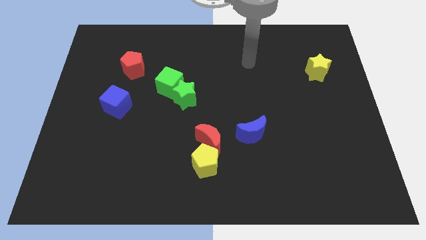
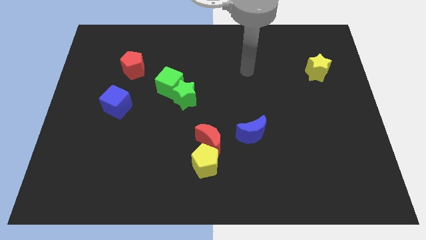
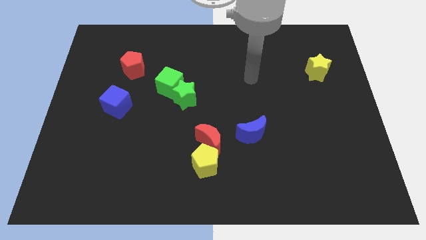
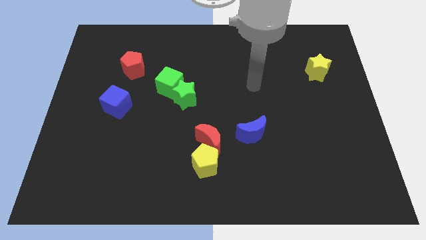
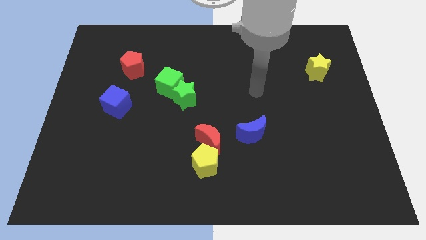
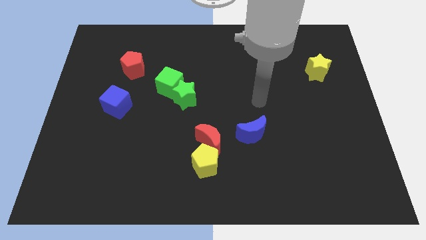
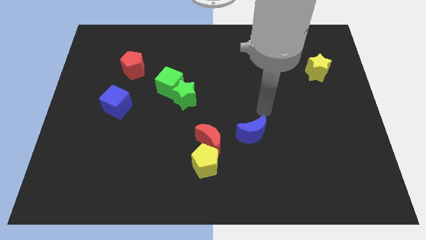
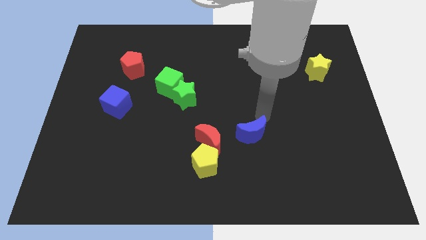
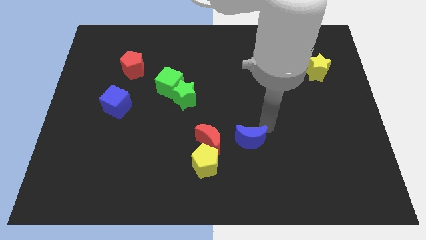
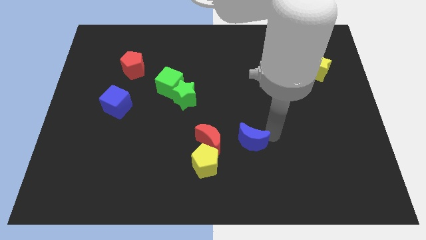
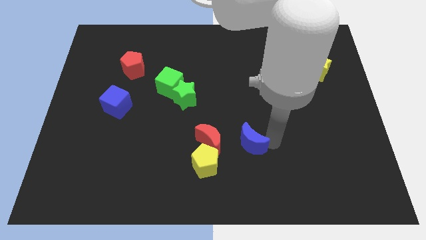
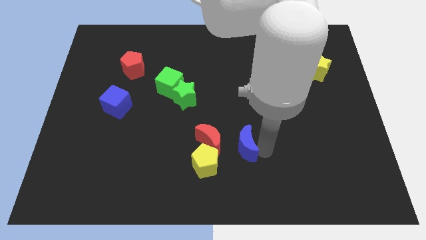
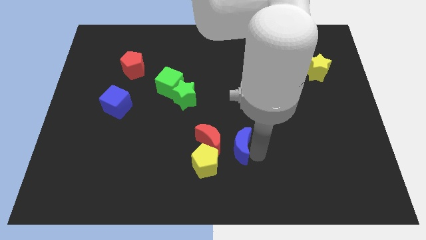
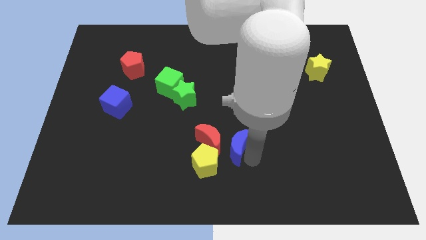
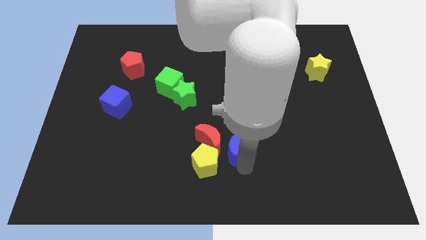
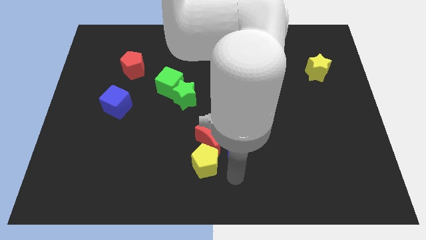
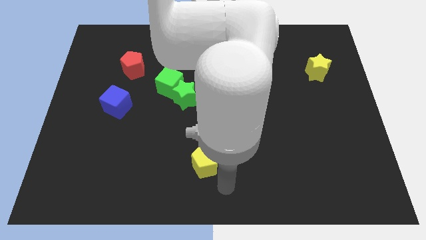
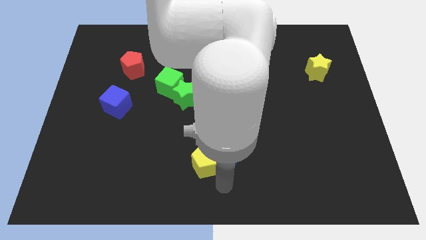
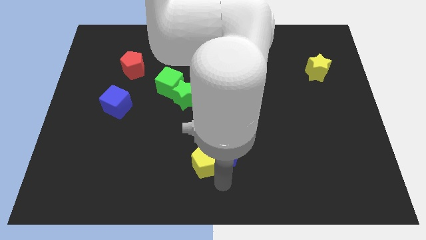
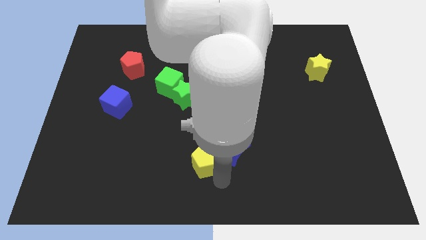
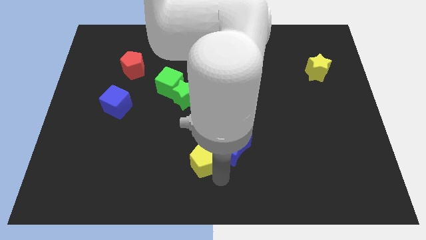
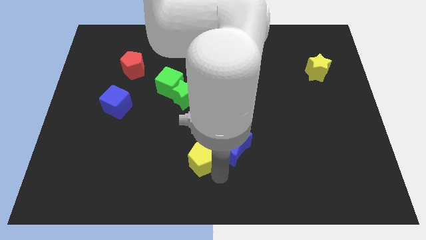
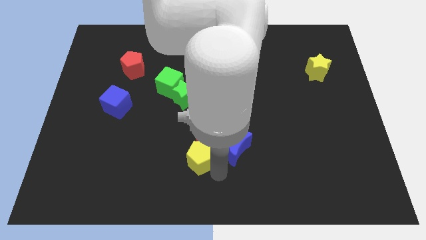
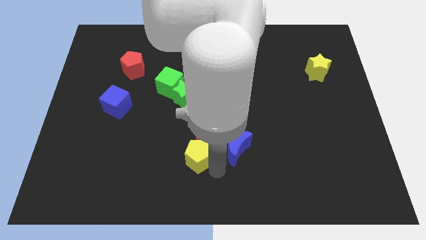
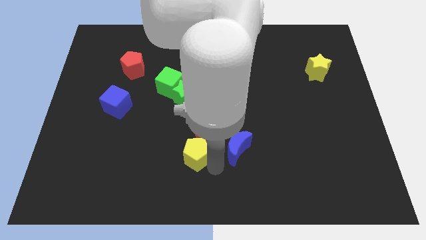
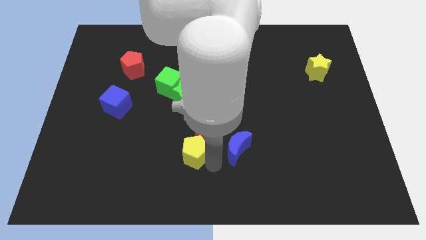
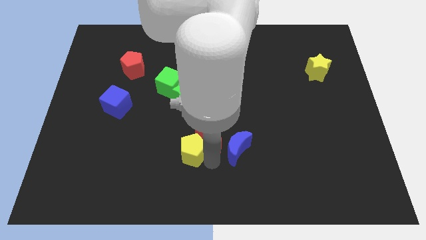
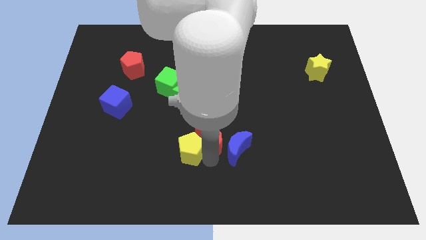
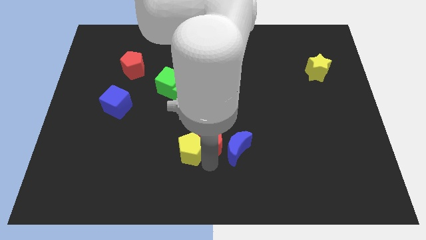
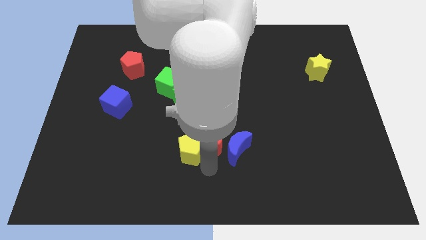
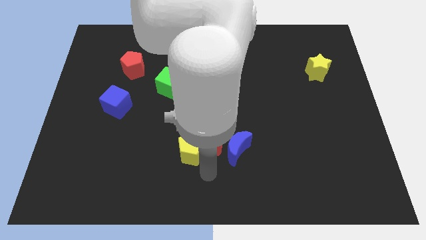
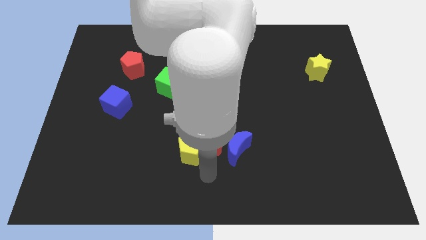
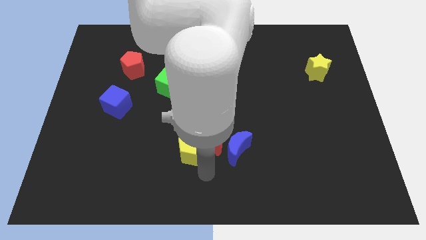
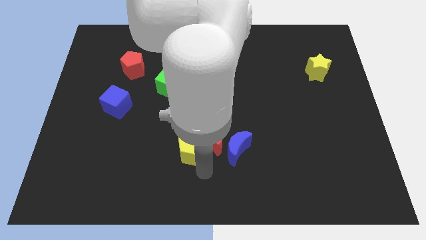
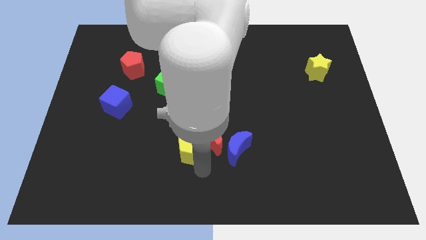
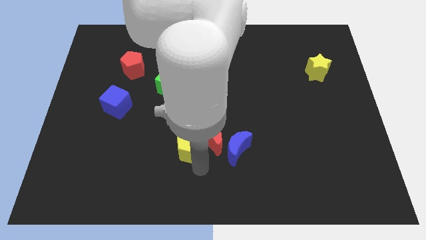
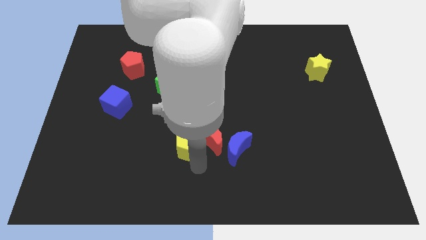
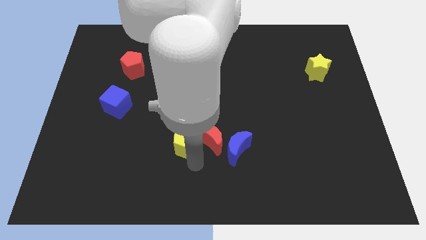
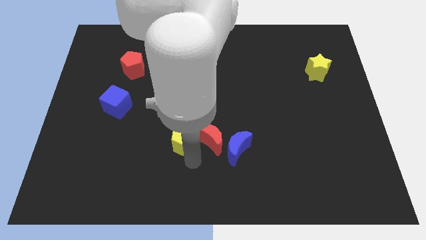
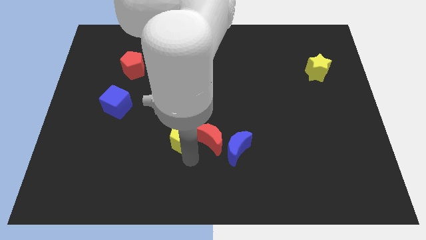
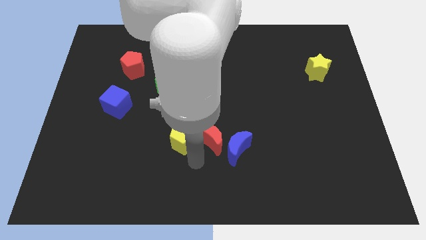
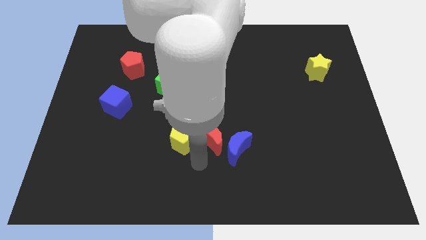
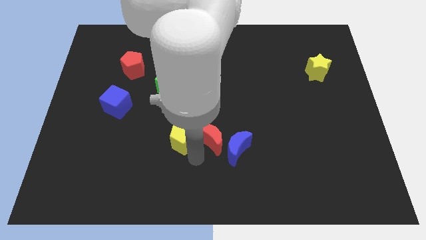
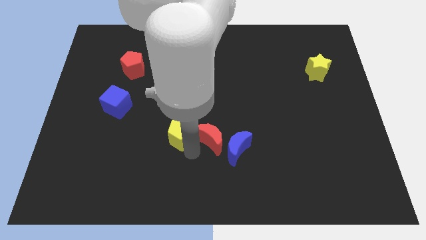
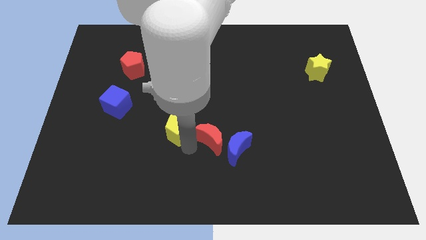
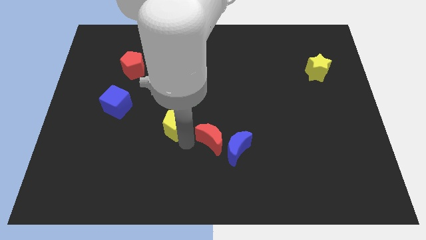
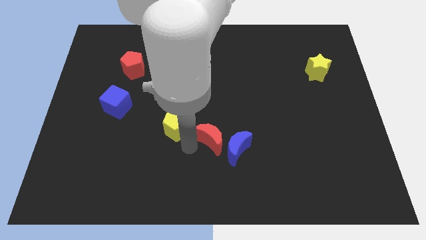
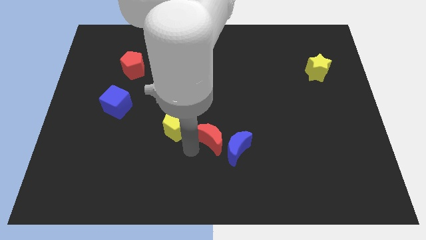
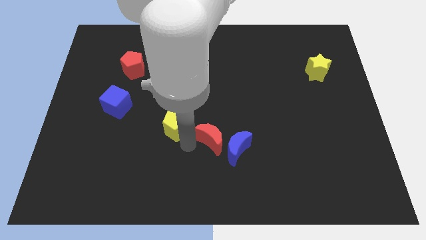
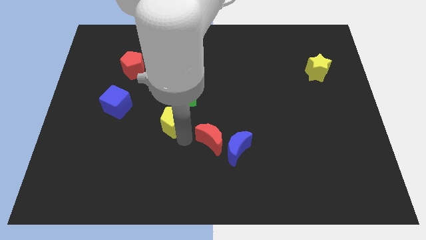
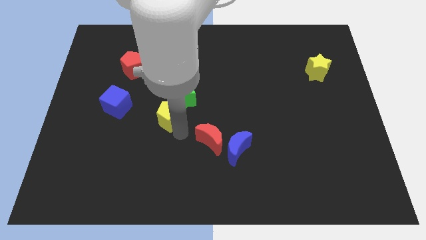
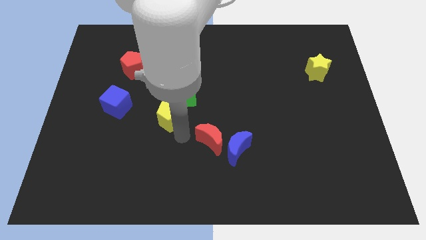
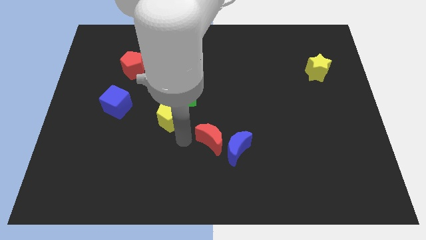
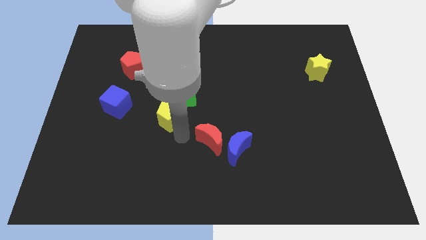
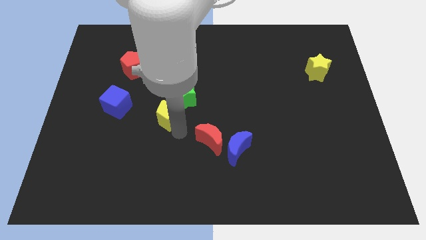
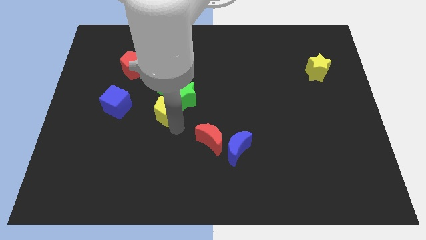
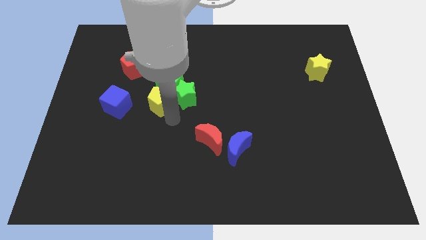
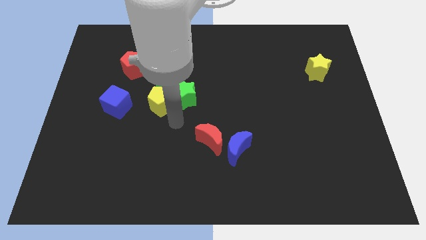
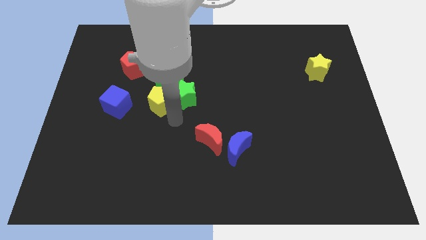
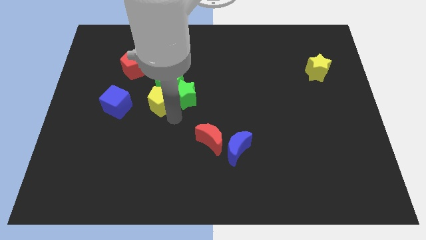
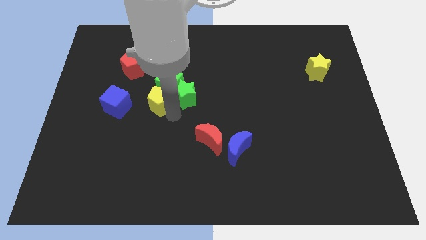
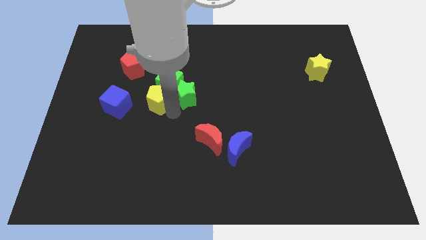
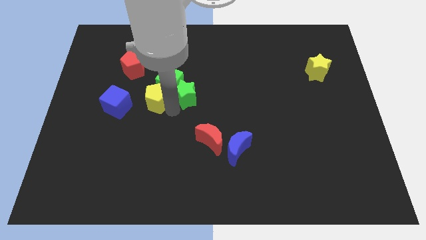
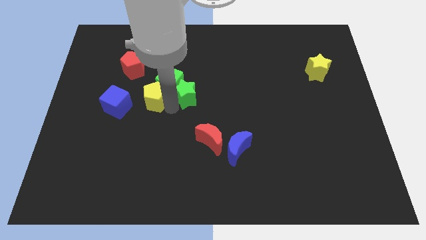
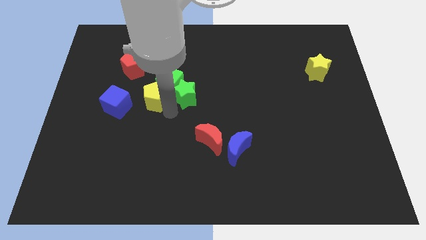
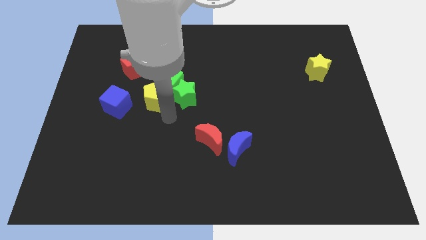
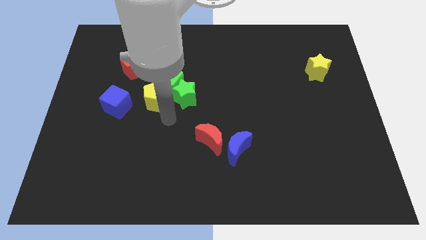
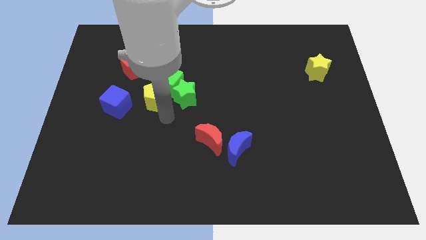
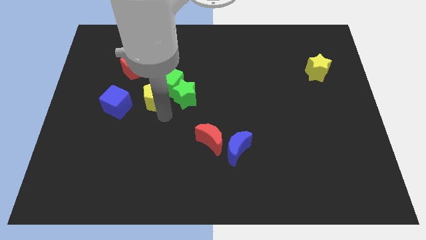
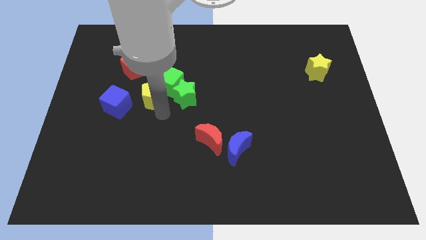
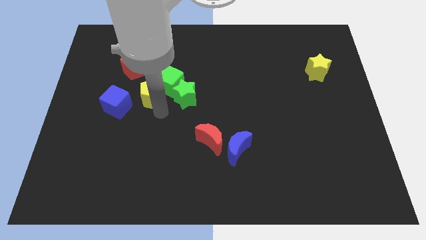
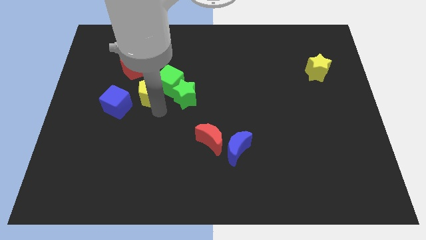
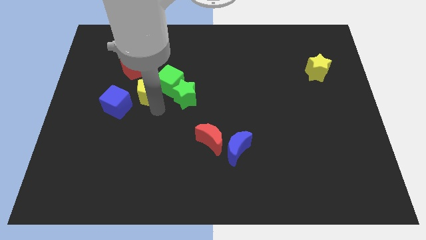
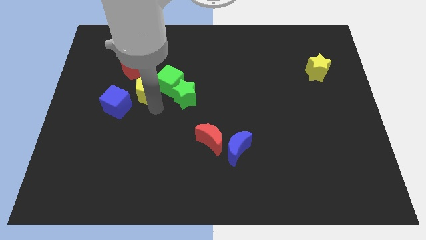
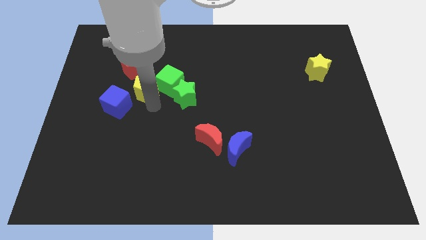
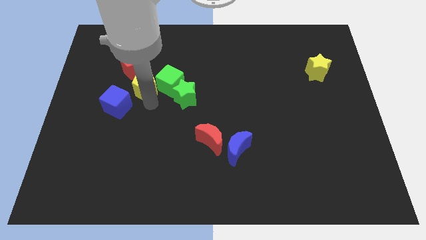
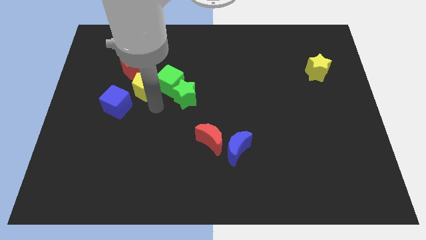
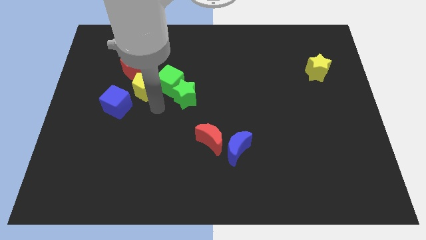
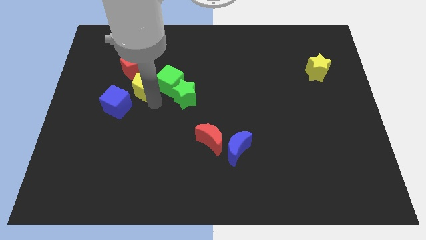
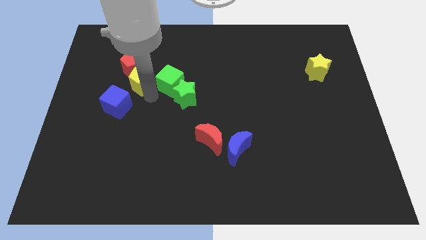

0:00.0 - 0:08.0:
push the yellow pentagon close to the red pentagon
